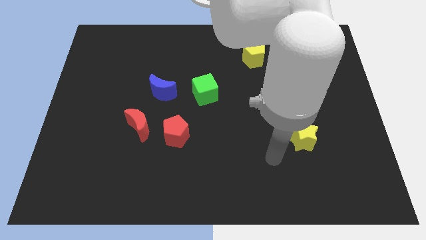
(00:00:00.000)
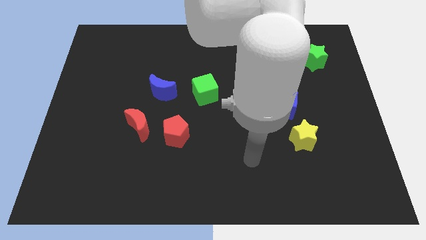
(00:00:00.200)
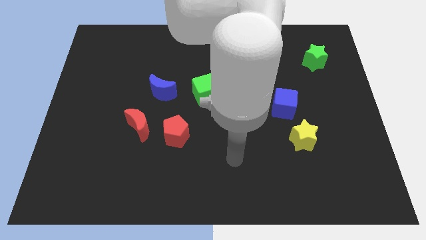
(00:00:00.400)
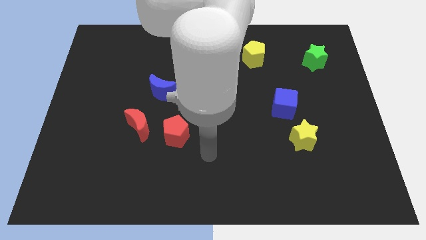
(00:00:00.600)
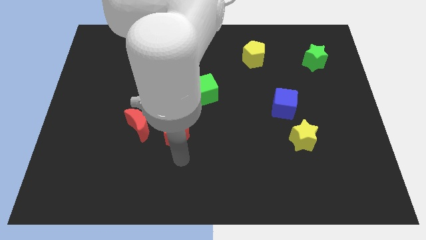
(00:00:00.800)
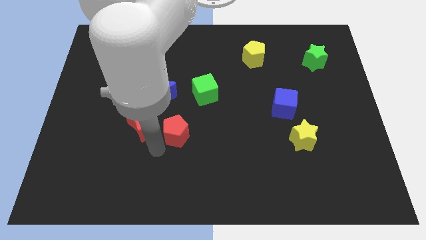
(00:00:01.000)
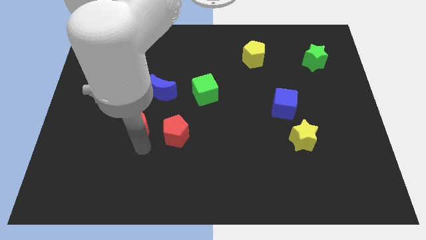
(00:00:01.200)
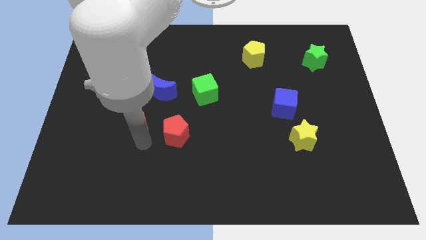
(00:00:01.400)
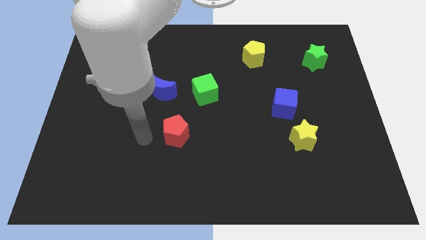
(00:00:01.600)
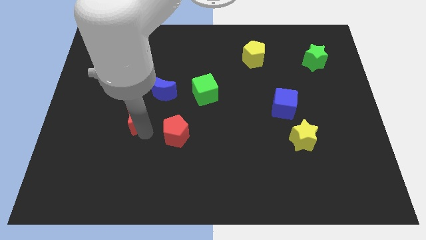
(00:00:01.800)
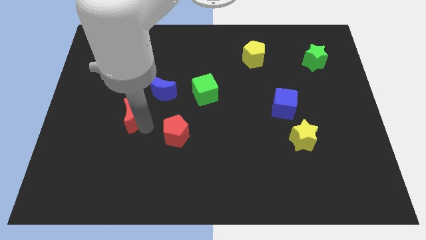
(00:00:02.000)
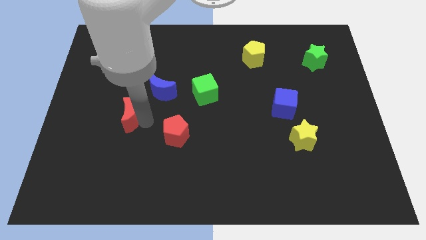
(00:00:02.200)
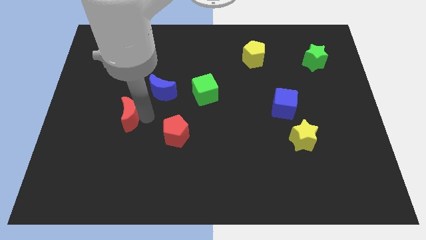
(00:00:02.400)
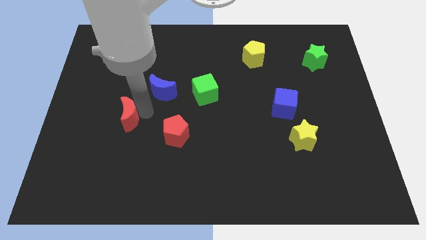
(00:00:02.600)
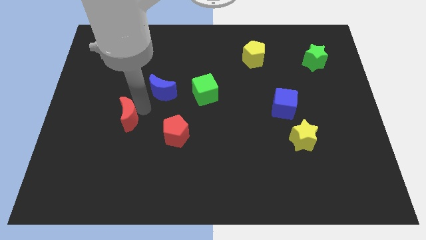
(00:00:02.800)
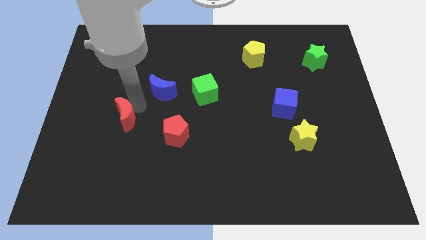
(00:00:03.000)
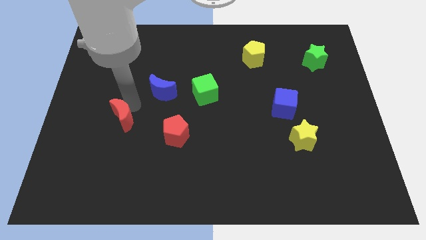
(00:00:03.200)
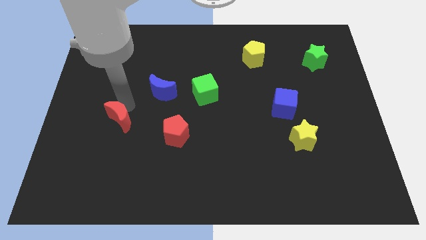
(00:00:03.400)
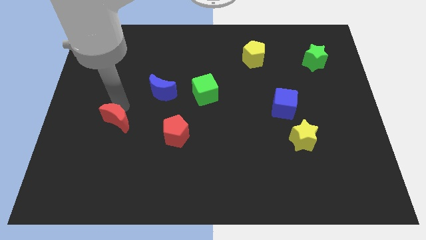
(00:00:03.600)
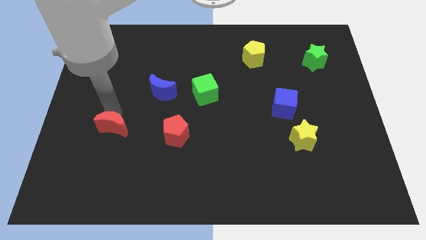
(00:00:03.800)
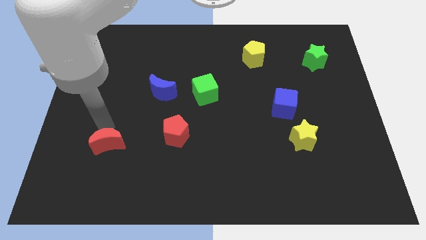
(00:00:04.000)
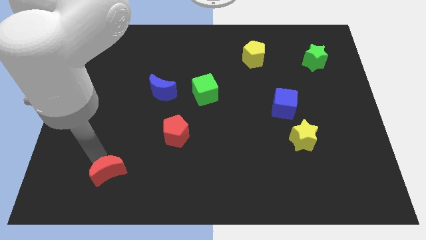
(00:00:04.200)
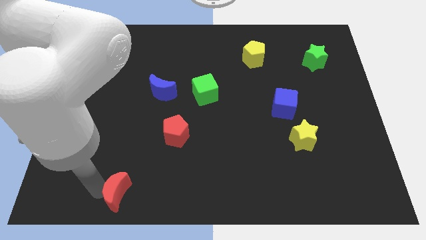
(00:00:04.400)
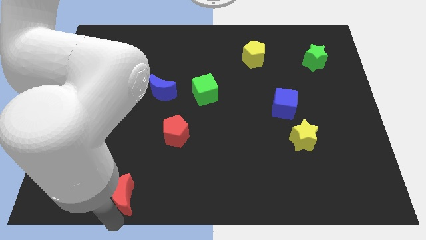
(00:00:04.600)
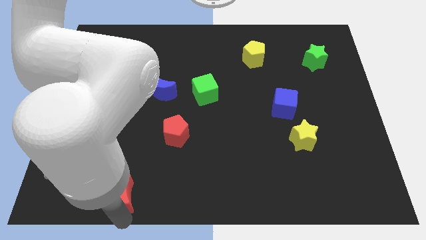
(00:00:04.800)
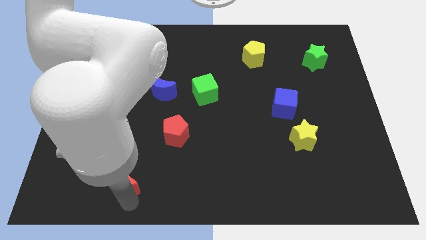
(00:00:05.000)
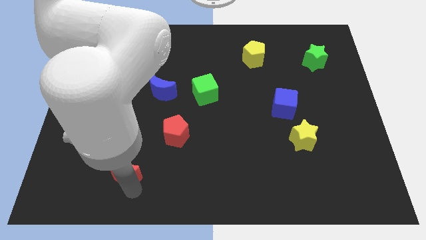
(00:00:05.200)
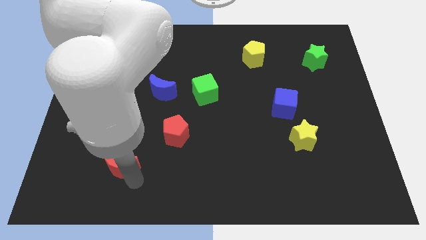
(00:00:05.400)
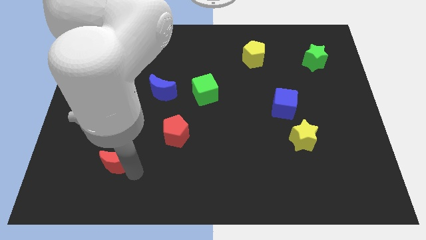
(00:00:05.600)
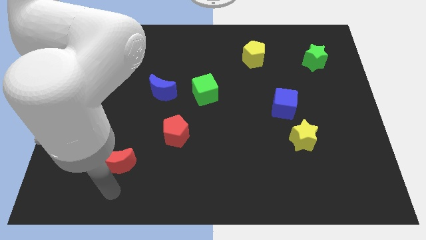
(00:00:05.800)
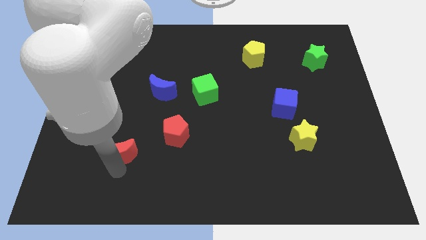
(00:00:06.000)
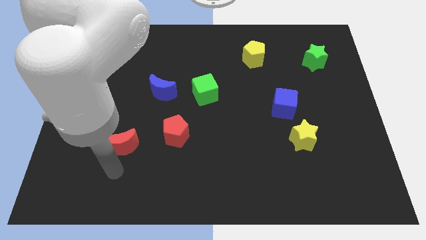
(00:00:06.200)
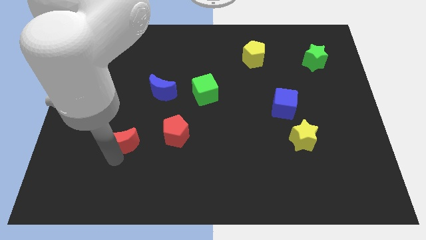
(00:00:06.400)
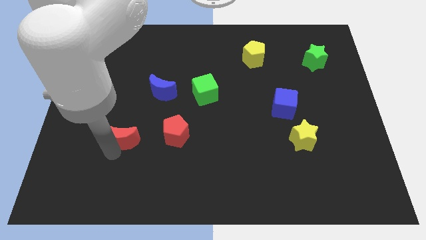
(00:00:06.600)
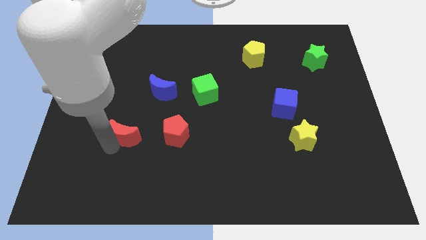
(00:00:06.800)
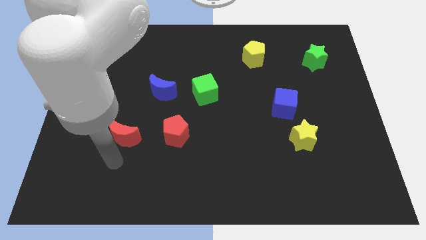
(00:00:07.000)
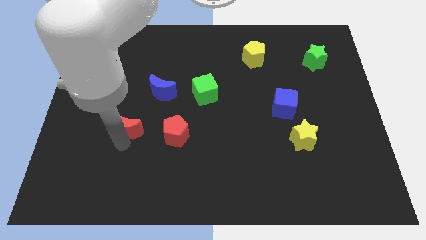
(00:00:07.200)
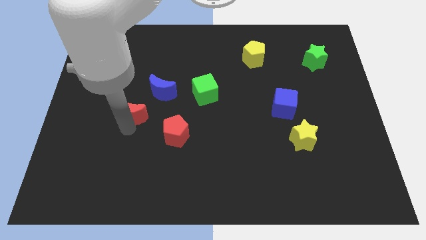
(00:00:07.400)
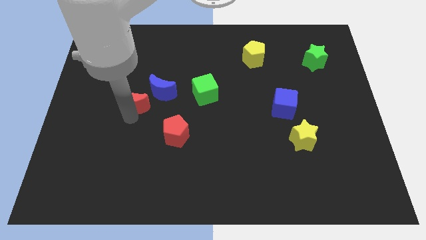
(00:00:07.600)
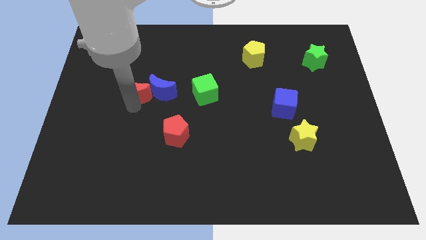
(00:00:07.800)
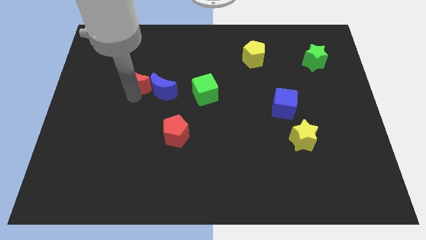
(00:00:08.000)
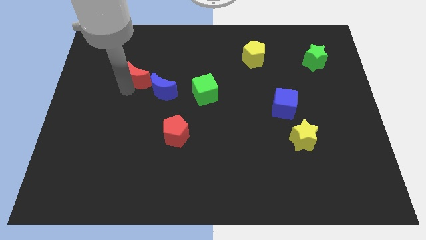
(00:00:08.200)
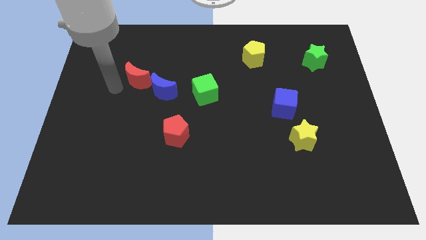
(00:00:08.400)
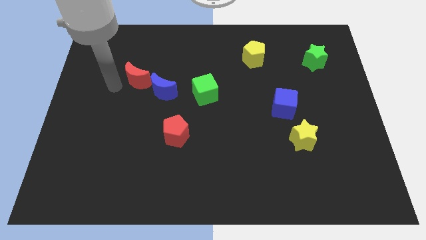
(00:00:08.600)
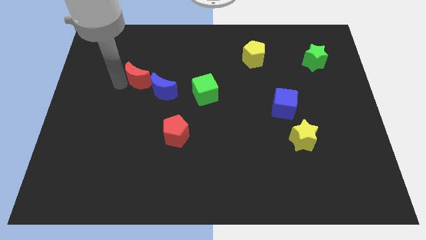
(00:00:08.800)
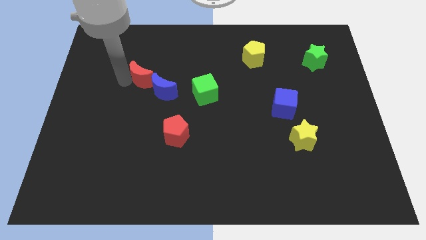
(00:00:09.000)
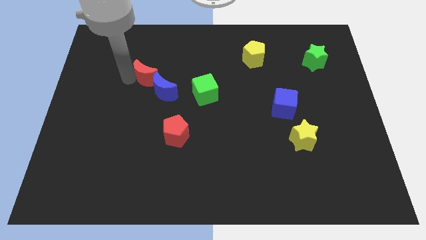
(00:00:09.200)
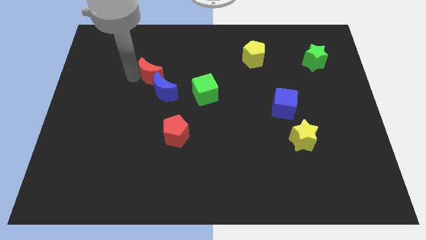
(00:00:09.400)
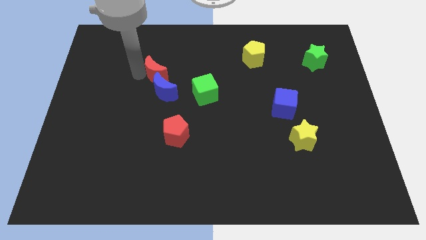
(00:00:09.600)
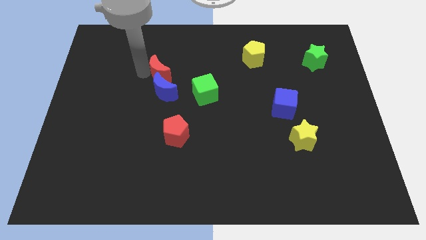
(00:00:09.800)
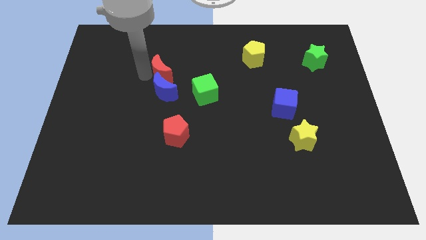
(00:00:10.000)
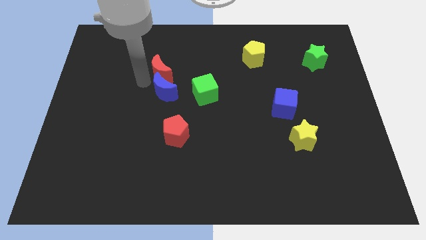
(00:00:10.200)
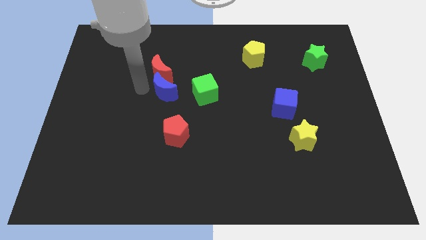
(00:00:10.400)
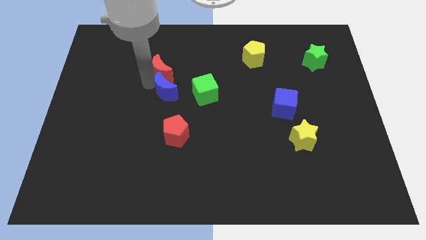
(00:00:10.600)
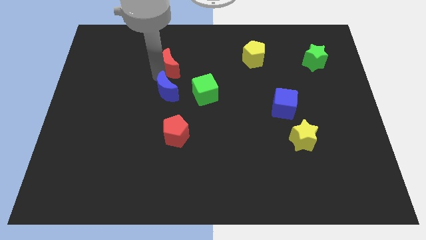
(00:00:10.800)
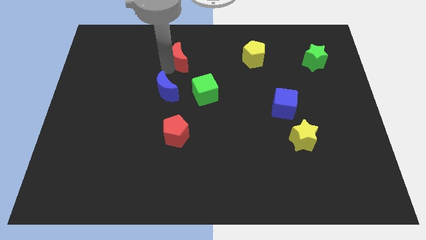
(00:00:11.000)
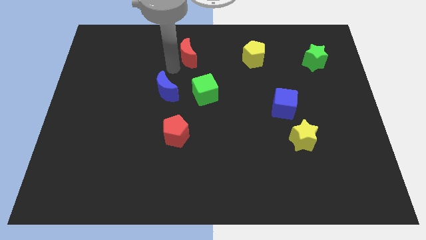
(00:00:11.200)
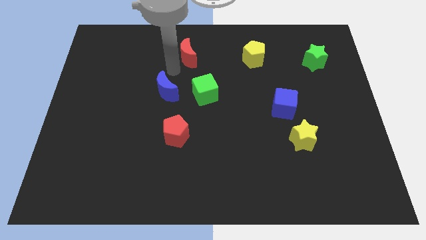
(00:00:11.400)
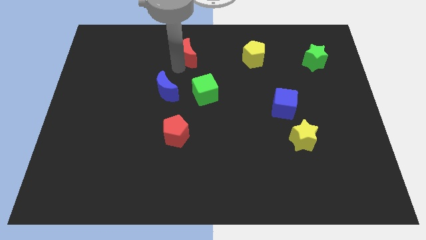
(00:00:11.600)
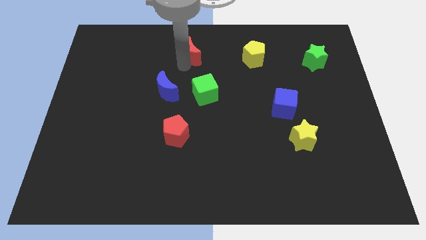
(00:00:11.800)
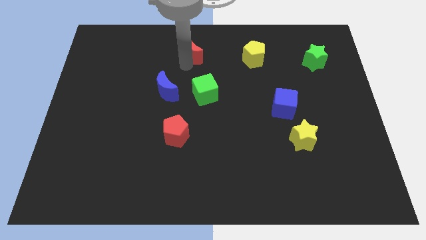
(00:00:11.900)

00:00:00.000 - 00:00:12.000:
slide the red moon to the top

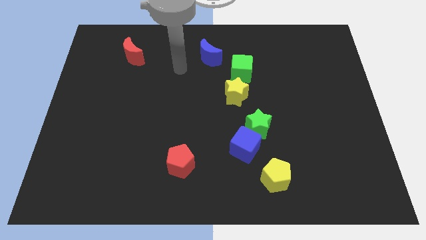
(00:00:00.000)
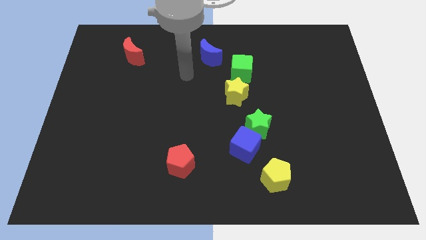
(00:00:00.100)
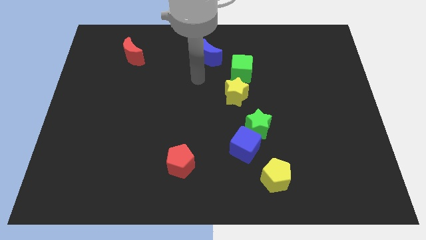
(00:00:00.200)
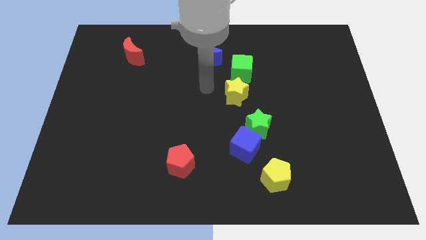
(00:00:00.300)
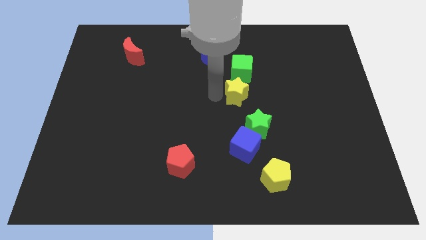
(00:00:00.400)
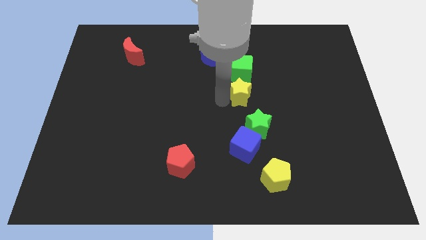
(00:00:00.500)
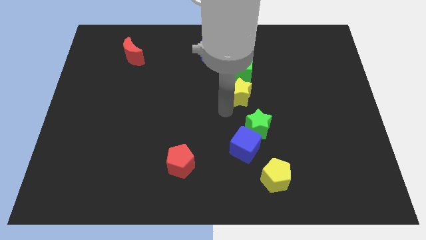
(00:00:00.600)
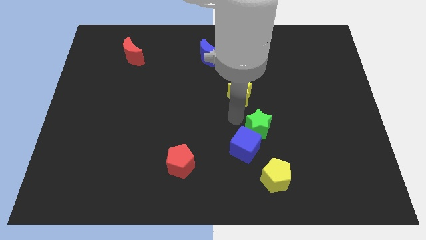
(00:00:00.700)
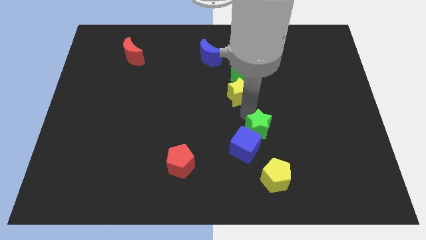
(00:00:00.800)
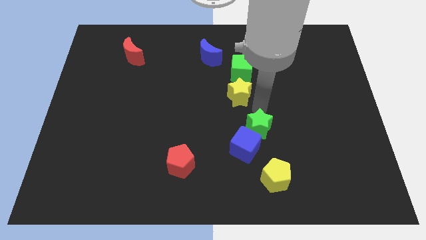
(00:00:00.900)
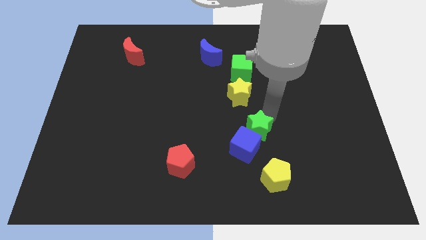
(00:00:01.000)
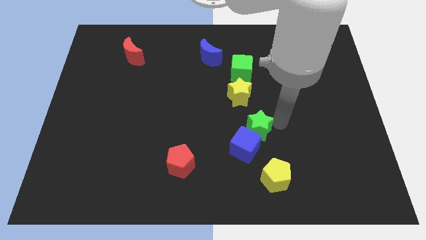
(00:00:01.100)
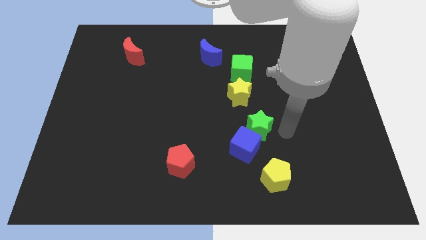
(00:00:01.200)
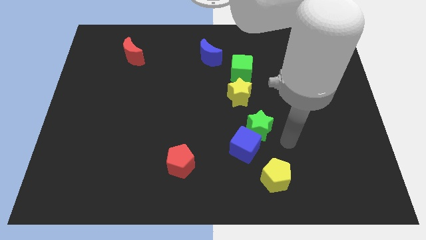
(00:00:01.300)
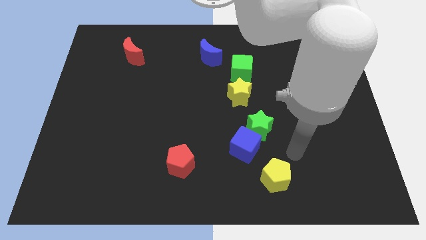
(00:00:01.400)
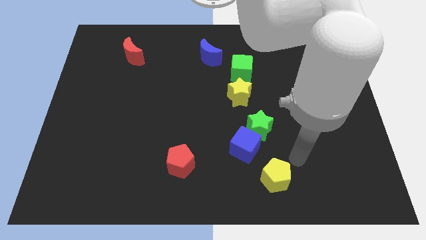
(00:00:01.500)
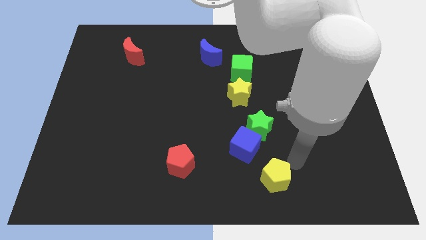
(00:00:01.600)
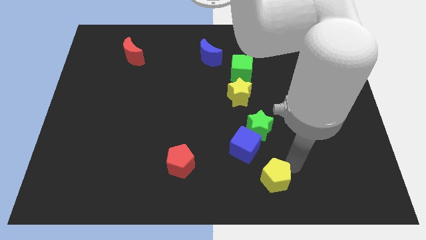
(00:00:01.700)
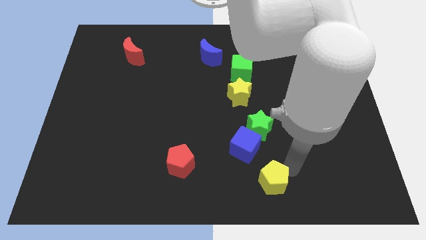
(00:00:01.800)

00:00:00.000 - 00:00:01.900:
move the yellow pentagon to the bottom
